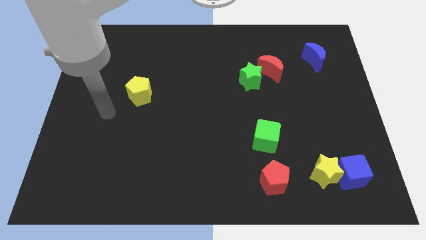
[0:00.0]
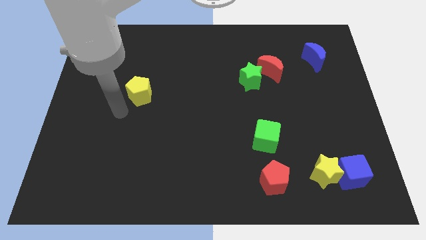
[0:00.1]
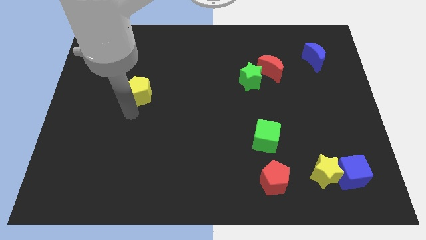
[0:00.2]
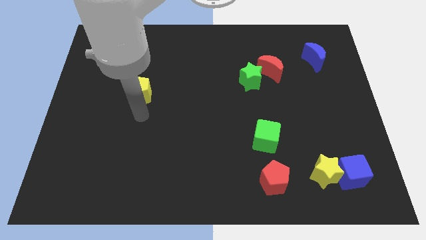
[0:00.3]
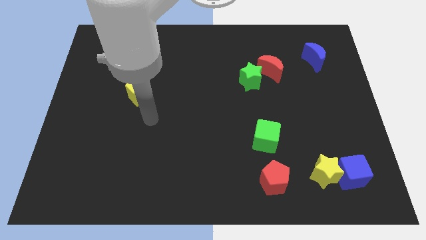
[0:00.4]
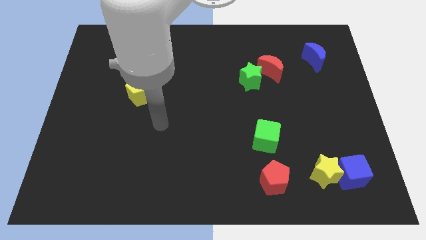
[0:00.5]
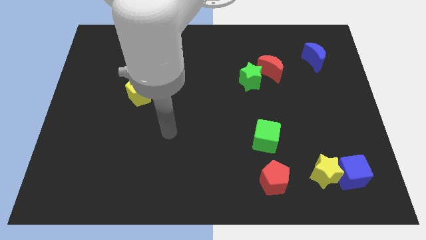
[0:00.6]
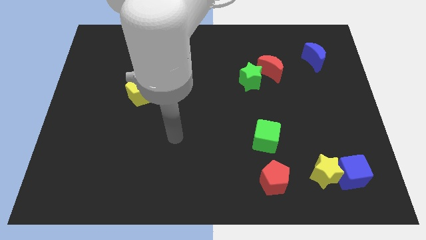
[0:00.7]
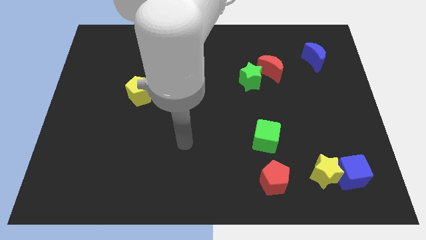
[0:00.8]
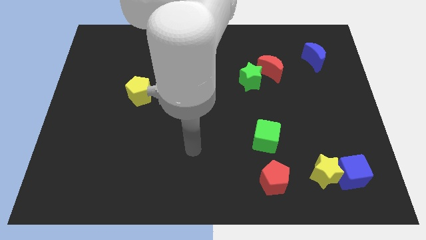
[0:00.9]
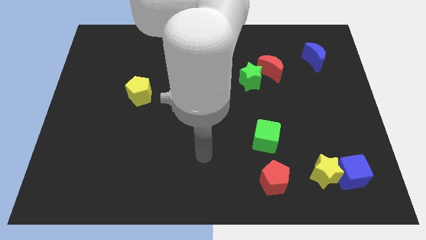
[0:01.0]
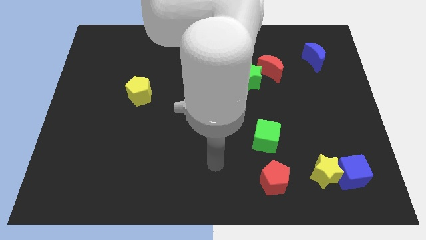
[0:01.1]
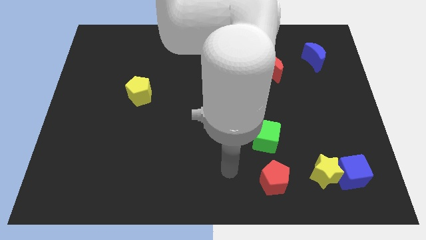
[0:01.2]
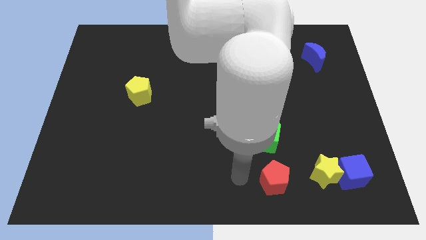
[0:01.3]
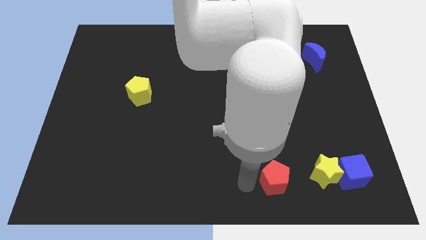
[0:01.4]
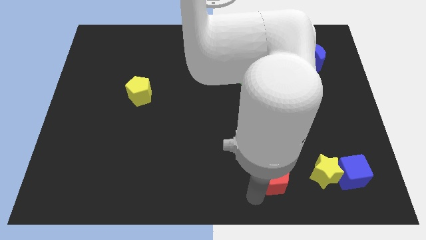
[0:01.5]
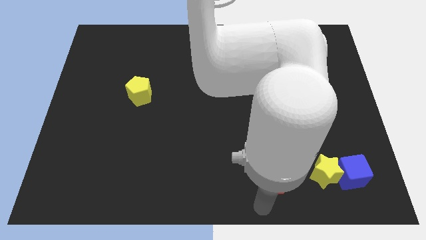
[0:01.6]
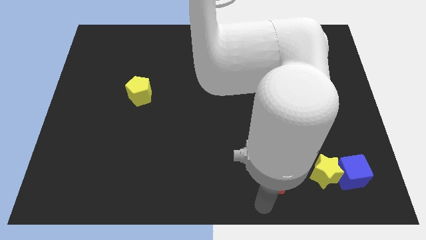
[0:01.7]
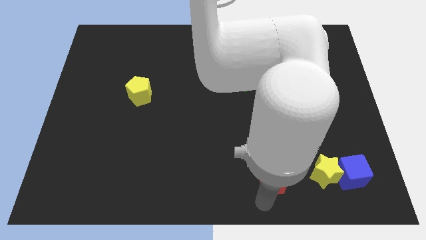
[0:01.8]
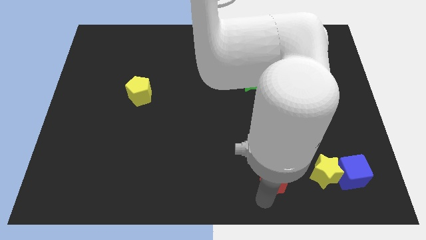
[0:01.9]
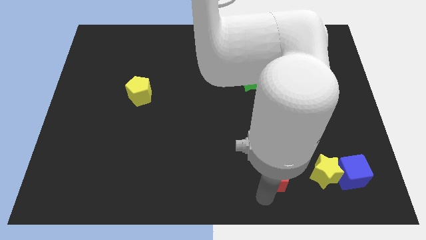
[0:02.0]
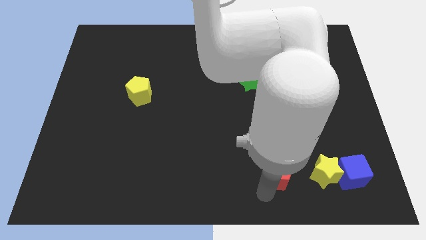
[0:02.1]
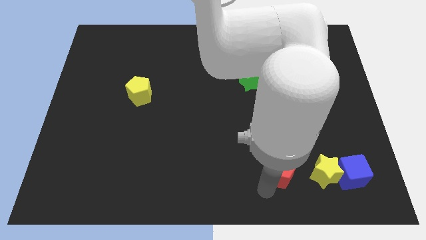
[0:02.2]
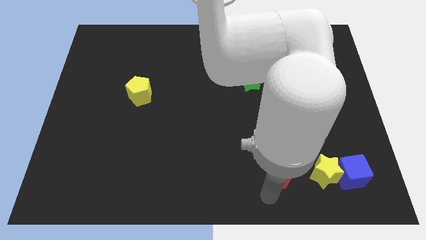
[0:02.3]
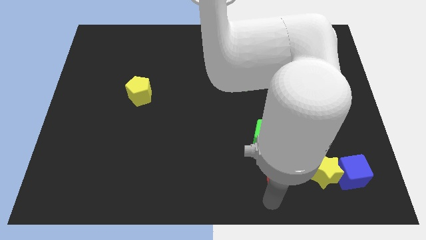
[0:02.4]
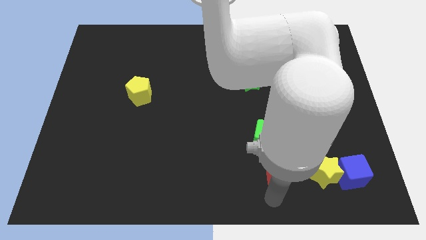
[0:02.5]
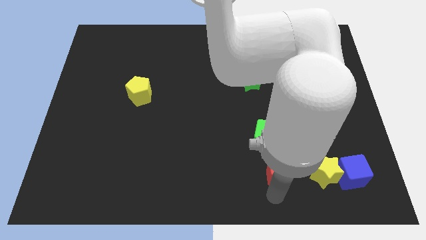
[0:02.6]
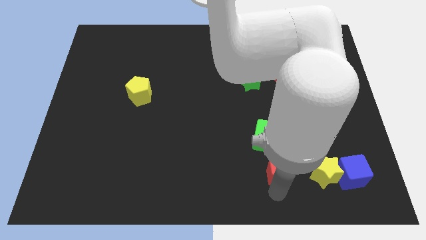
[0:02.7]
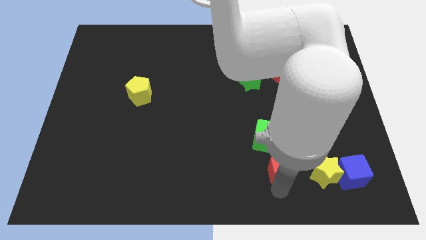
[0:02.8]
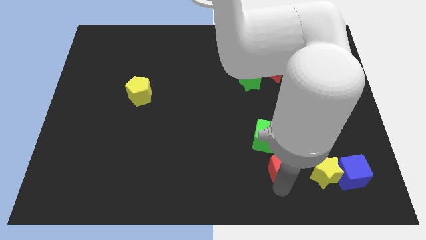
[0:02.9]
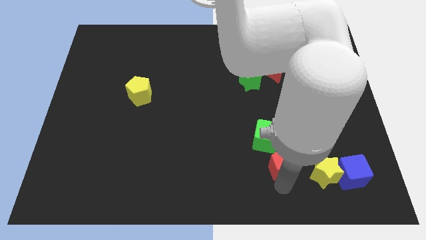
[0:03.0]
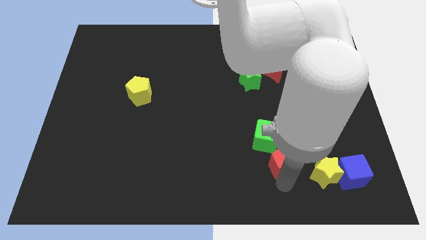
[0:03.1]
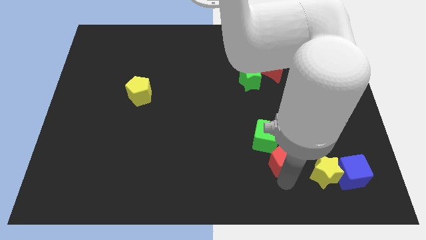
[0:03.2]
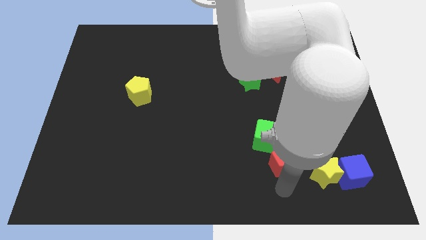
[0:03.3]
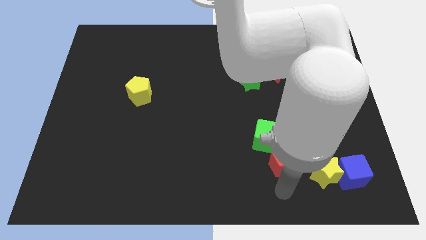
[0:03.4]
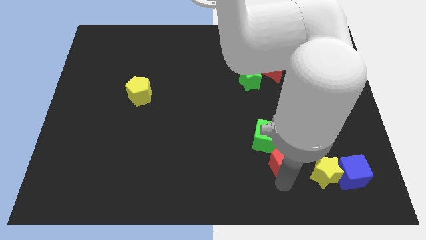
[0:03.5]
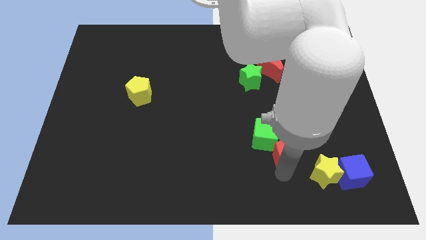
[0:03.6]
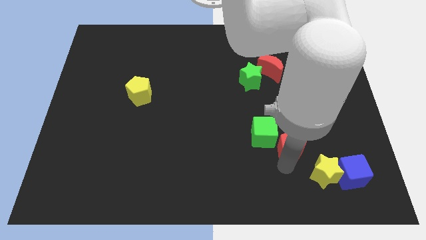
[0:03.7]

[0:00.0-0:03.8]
push the red pentagon upwards slightly

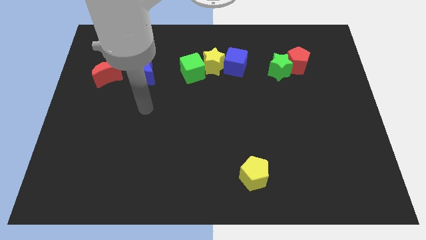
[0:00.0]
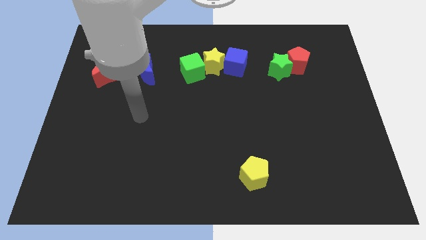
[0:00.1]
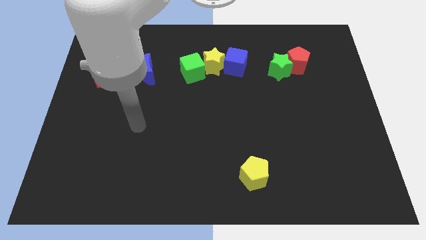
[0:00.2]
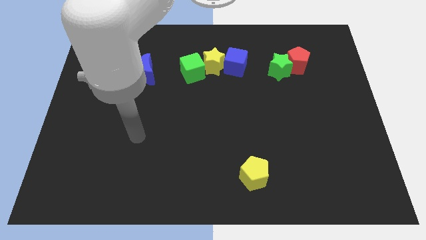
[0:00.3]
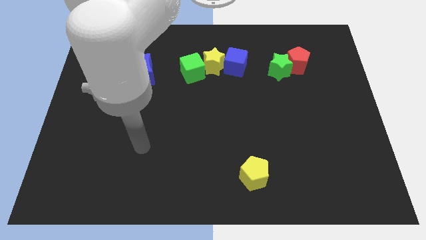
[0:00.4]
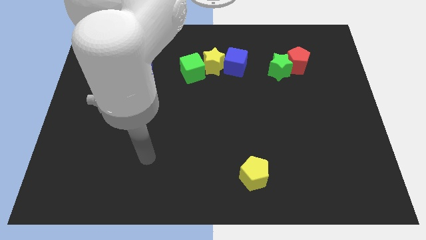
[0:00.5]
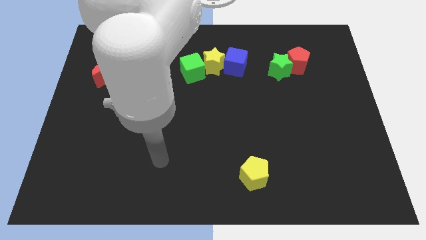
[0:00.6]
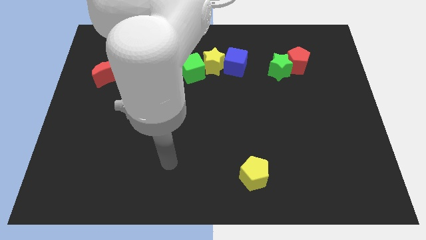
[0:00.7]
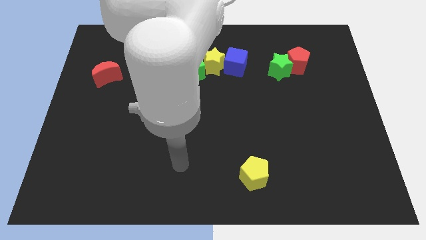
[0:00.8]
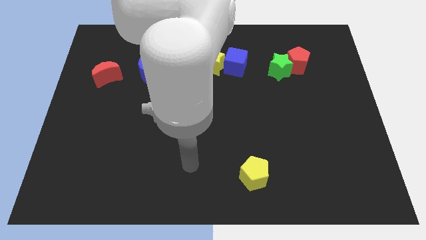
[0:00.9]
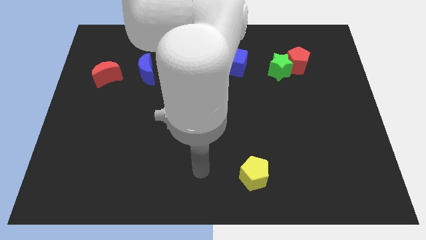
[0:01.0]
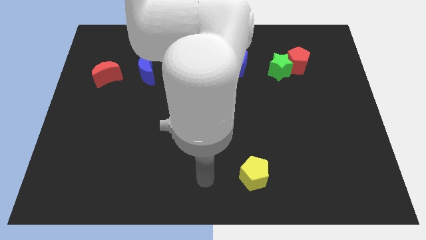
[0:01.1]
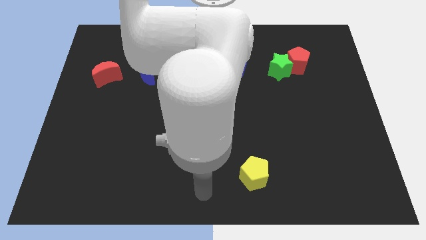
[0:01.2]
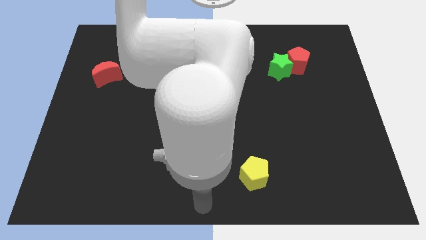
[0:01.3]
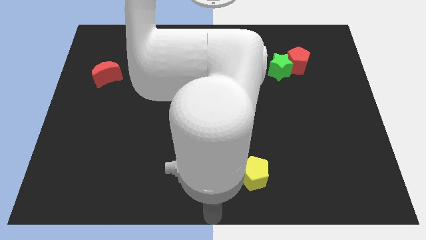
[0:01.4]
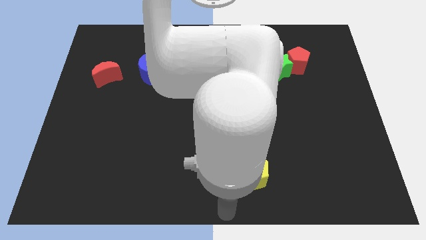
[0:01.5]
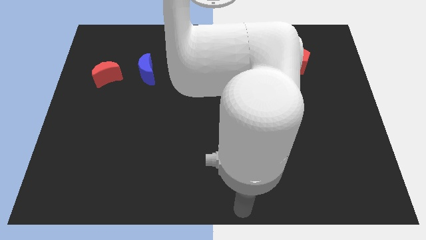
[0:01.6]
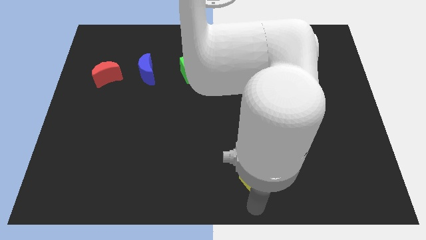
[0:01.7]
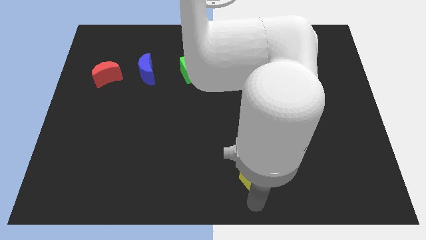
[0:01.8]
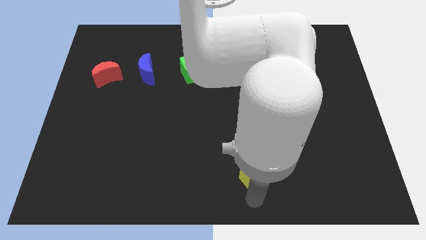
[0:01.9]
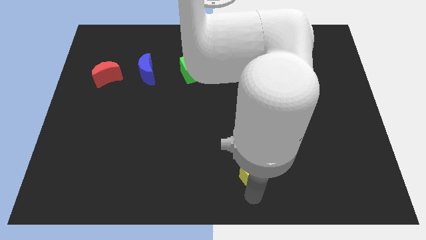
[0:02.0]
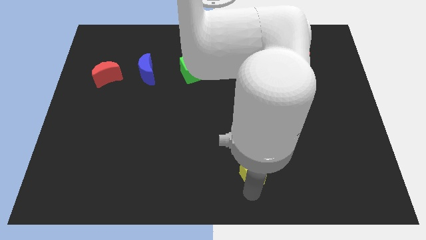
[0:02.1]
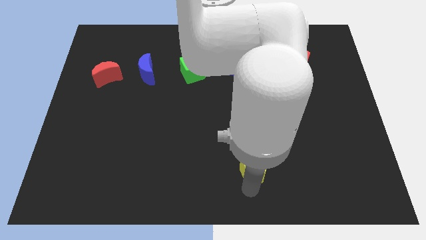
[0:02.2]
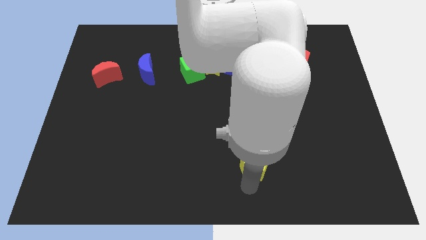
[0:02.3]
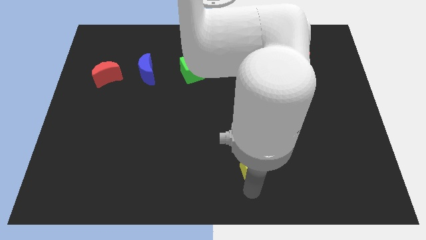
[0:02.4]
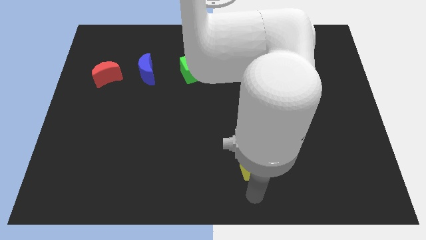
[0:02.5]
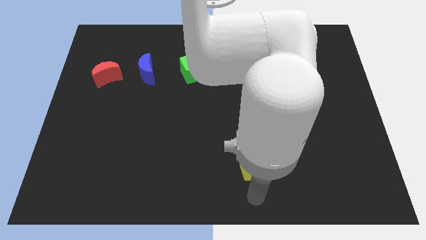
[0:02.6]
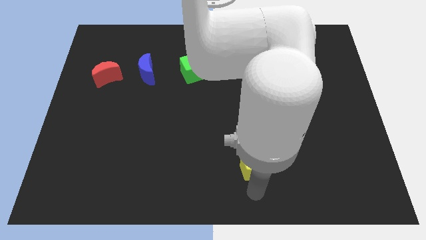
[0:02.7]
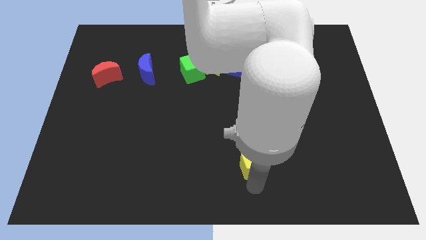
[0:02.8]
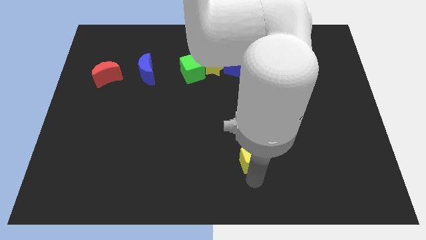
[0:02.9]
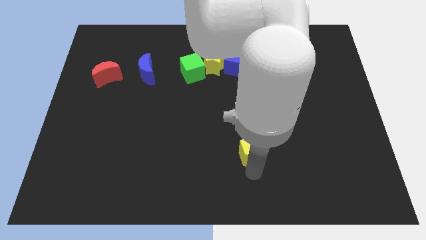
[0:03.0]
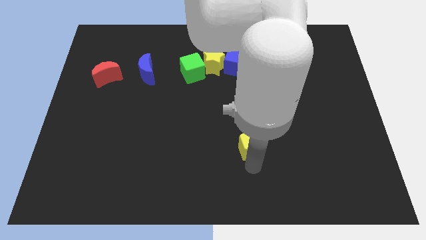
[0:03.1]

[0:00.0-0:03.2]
slightly slide the yellow pentagon up

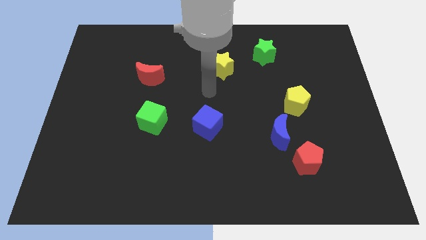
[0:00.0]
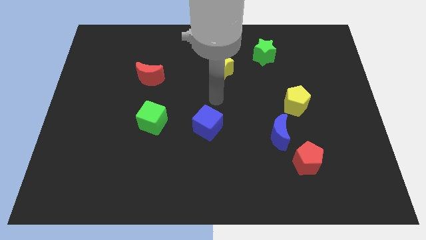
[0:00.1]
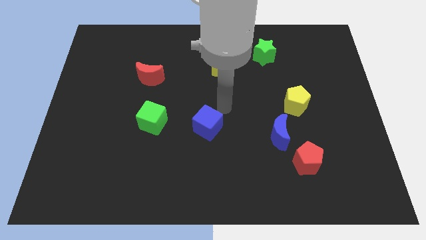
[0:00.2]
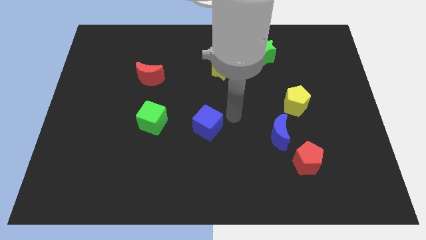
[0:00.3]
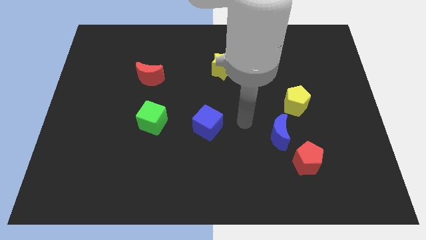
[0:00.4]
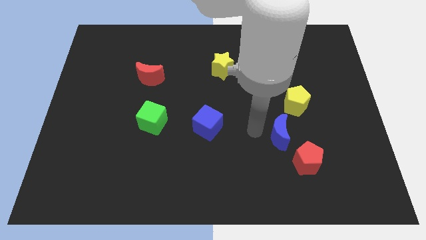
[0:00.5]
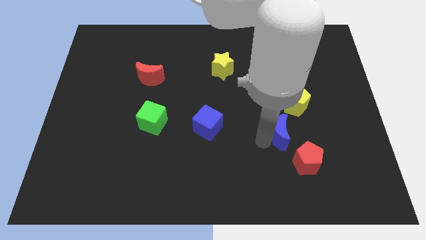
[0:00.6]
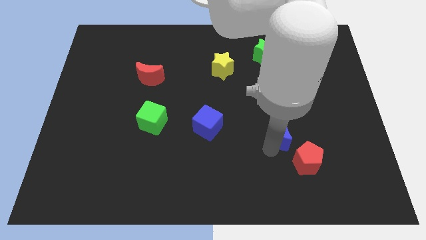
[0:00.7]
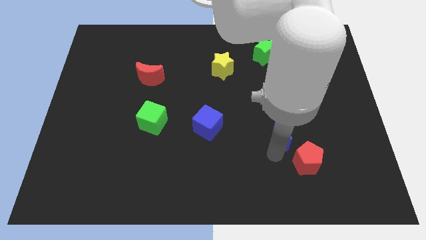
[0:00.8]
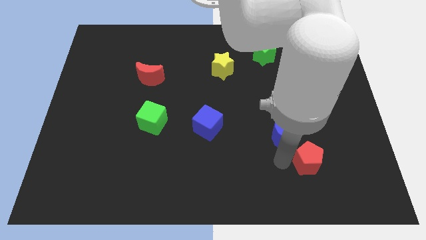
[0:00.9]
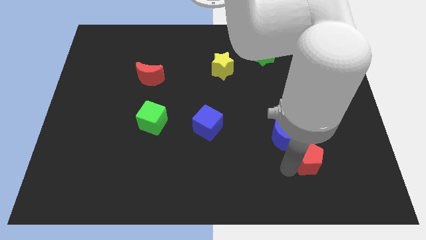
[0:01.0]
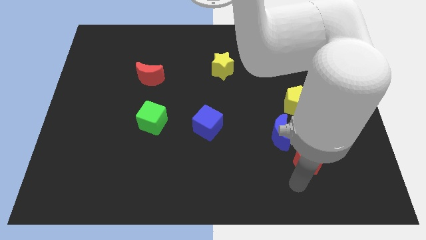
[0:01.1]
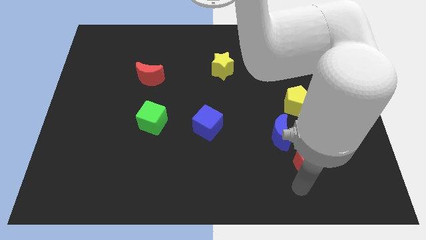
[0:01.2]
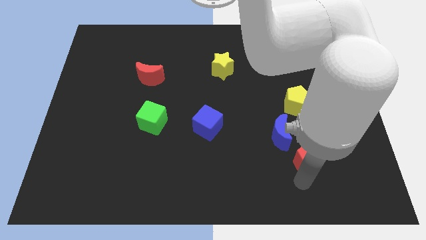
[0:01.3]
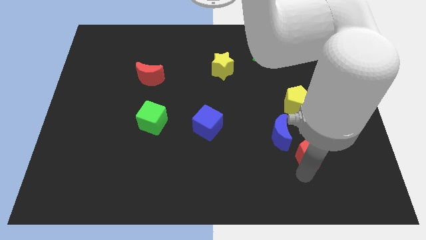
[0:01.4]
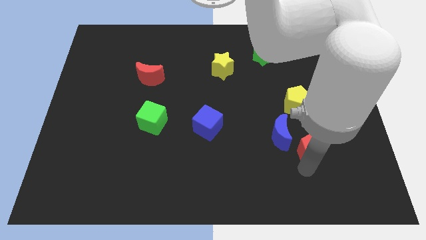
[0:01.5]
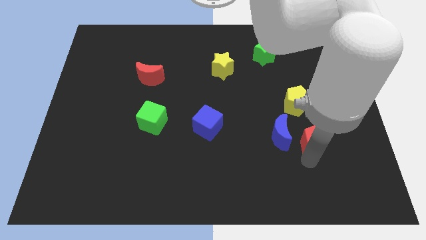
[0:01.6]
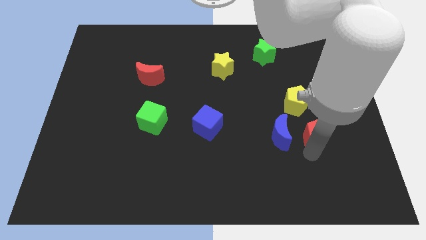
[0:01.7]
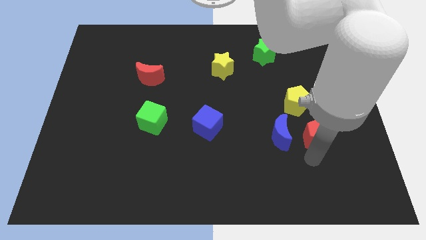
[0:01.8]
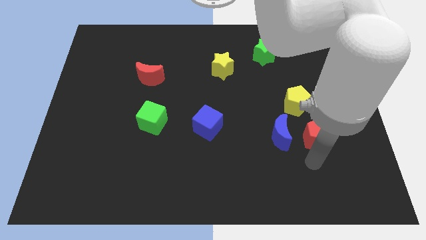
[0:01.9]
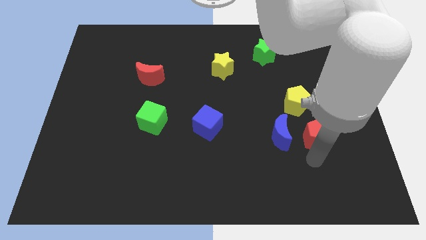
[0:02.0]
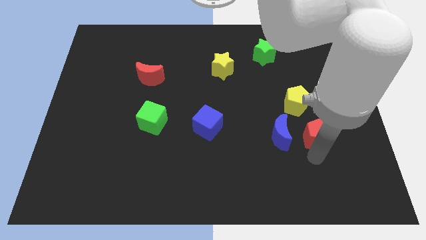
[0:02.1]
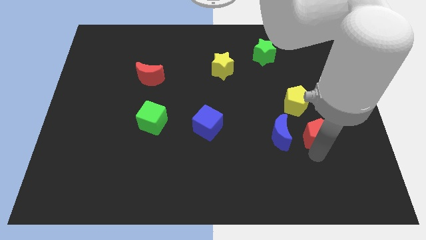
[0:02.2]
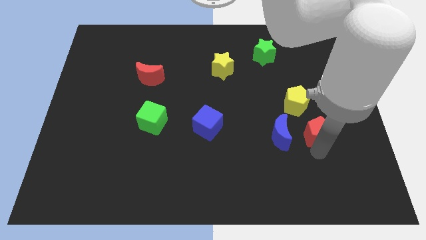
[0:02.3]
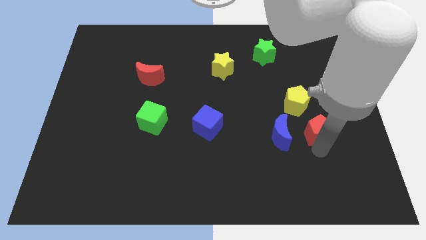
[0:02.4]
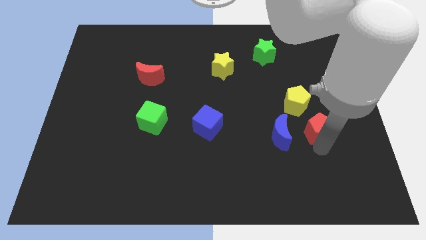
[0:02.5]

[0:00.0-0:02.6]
push the red pentagon a bit up
